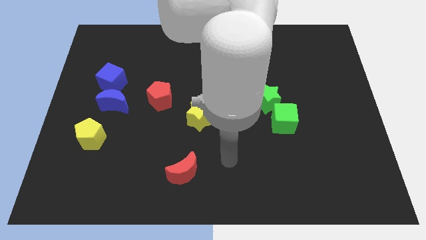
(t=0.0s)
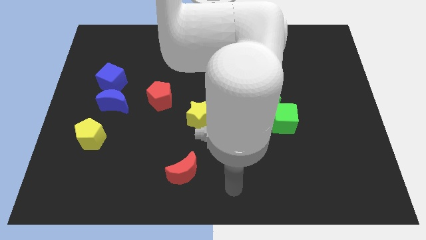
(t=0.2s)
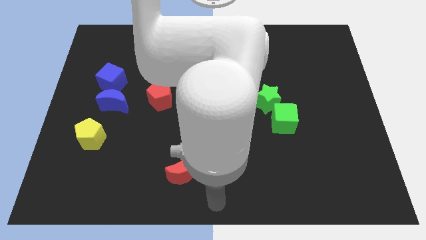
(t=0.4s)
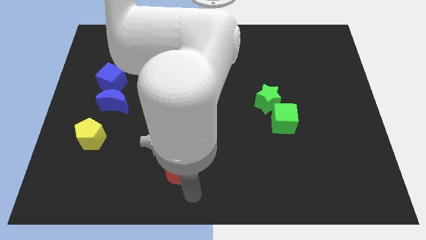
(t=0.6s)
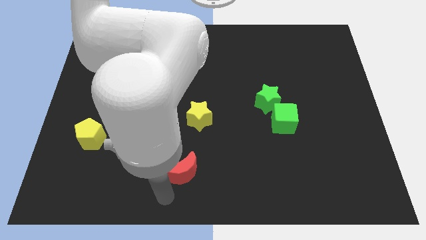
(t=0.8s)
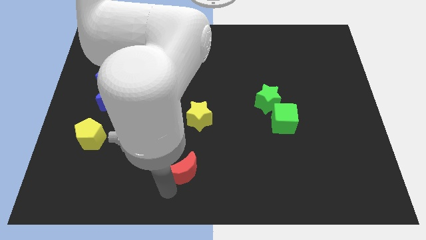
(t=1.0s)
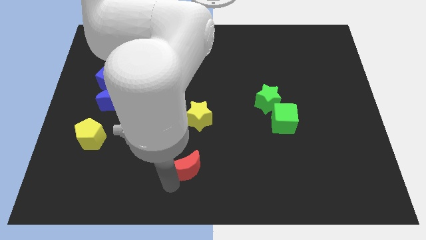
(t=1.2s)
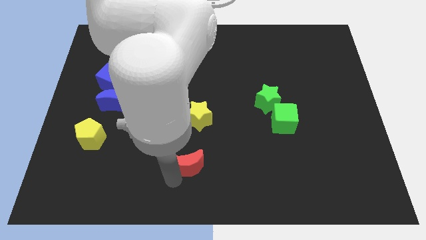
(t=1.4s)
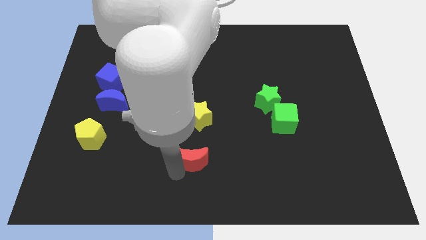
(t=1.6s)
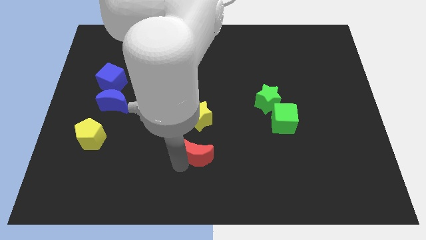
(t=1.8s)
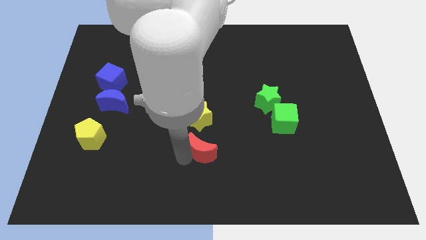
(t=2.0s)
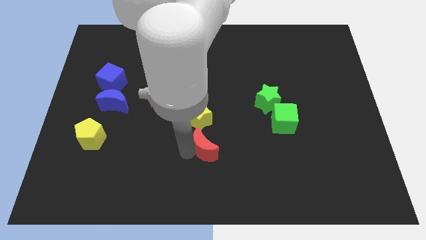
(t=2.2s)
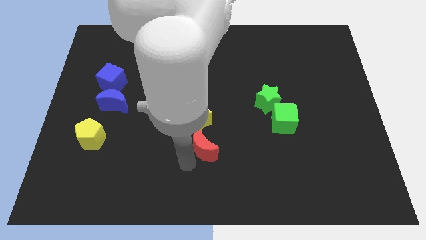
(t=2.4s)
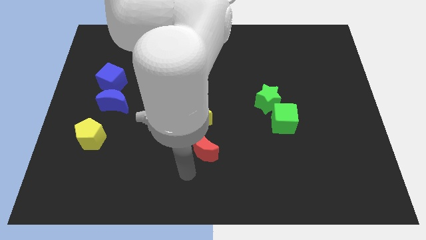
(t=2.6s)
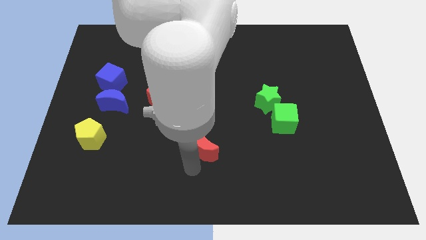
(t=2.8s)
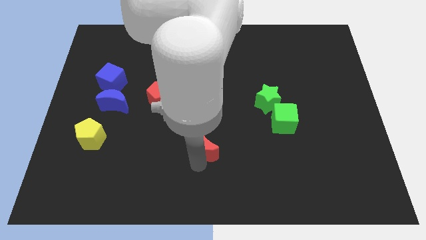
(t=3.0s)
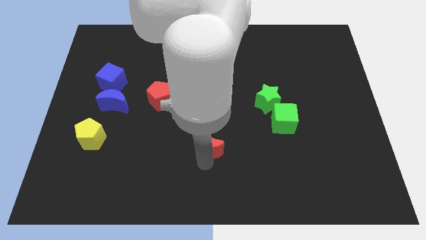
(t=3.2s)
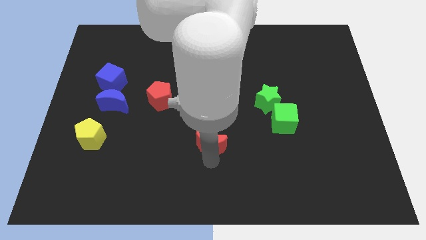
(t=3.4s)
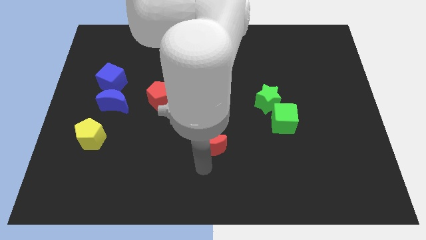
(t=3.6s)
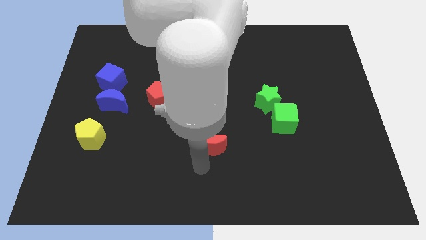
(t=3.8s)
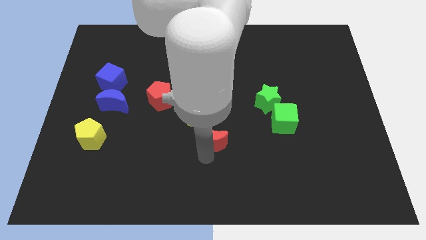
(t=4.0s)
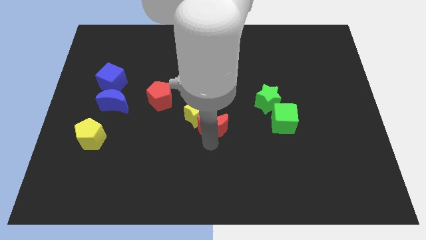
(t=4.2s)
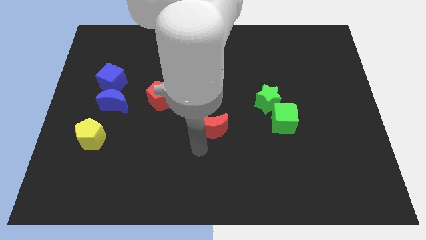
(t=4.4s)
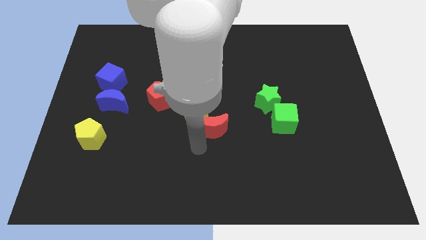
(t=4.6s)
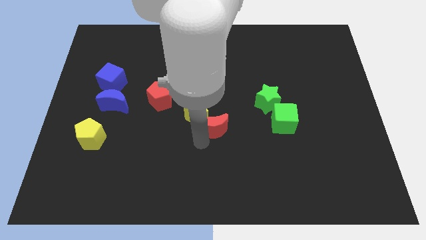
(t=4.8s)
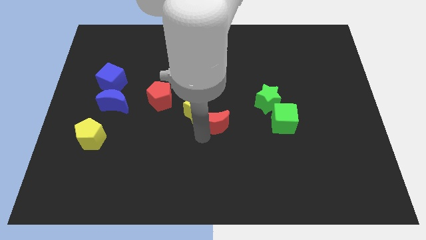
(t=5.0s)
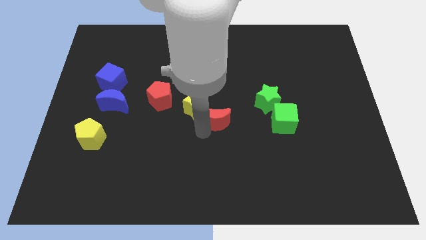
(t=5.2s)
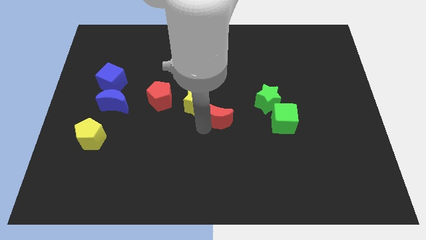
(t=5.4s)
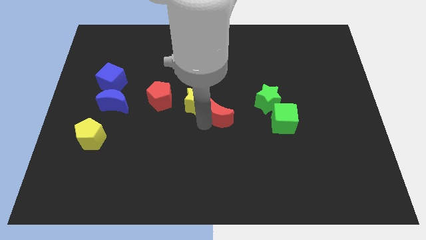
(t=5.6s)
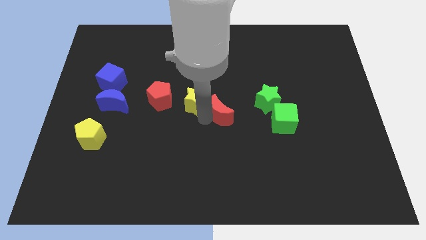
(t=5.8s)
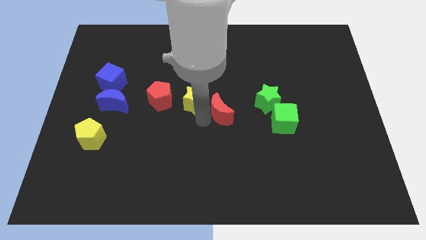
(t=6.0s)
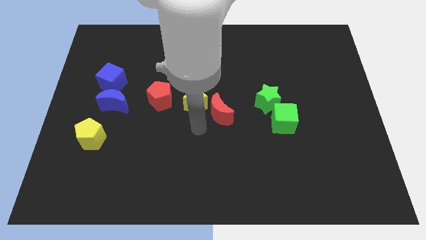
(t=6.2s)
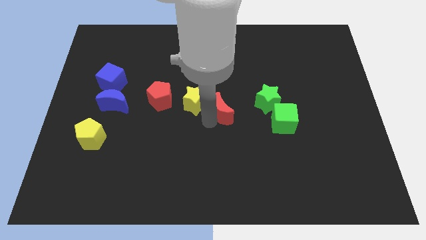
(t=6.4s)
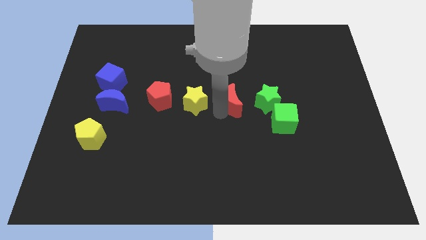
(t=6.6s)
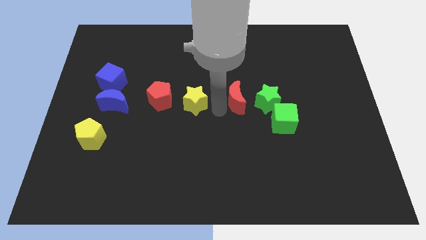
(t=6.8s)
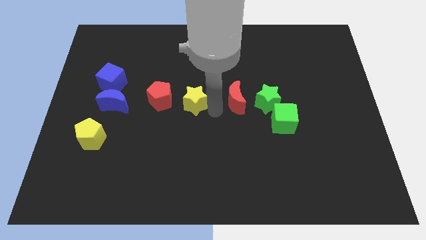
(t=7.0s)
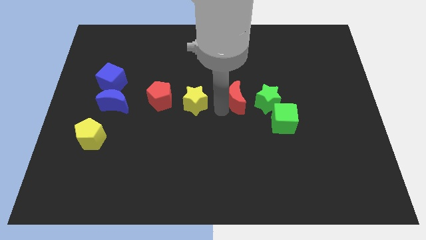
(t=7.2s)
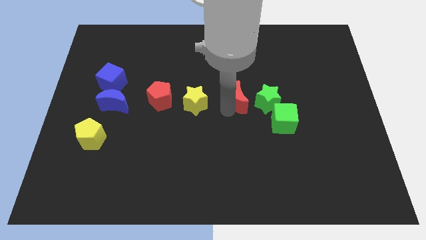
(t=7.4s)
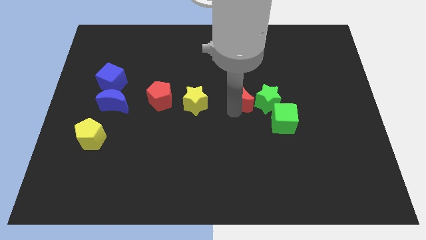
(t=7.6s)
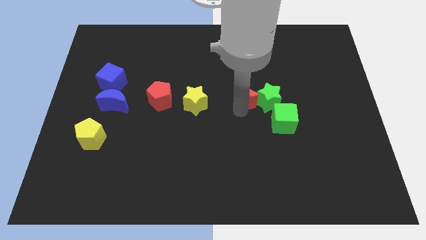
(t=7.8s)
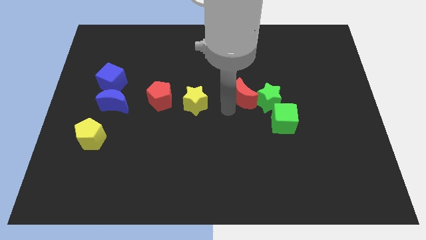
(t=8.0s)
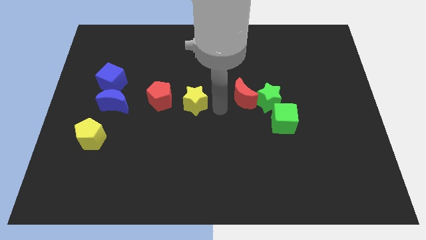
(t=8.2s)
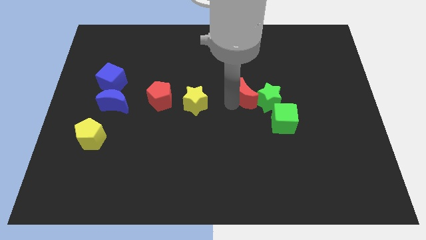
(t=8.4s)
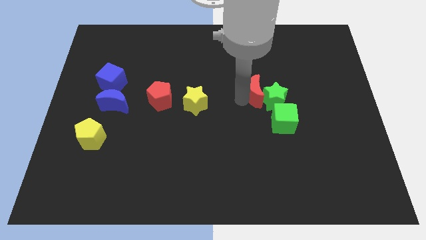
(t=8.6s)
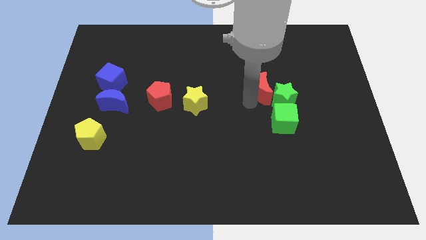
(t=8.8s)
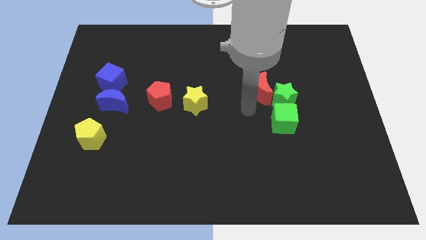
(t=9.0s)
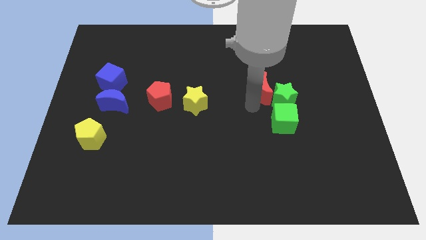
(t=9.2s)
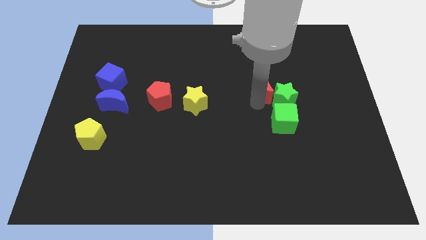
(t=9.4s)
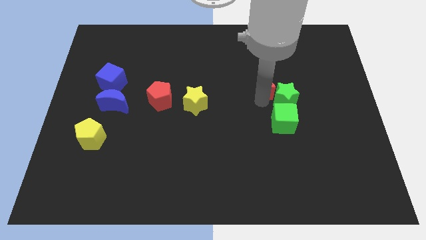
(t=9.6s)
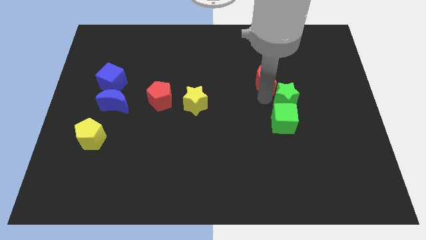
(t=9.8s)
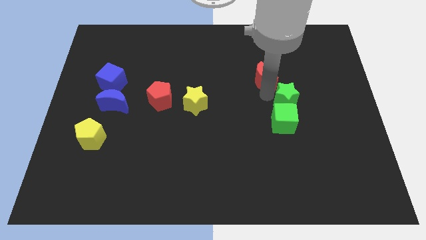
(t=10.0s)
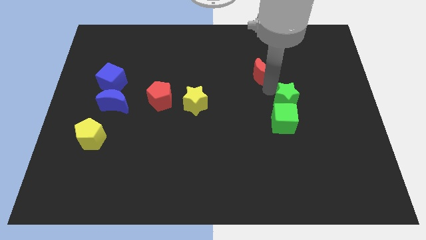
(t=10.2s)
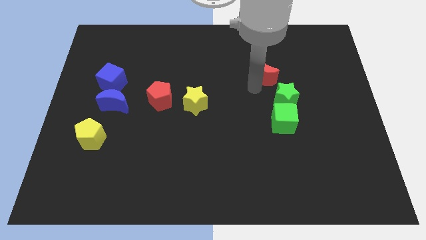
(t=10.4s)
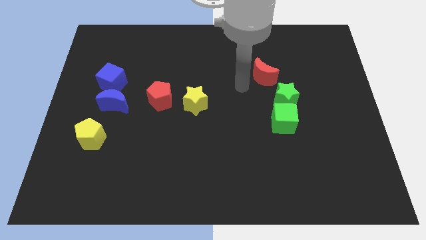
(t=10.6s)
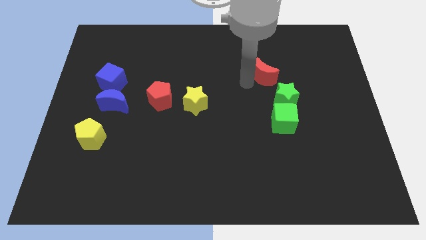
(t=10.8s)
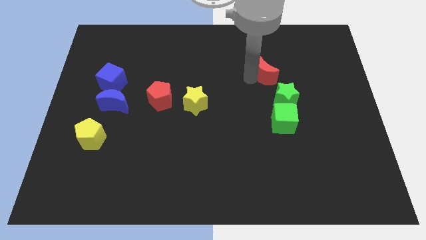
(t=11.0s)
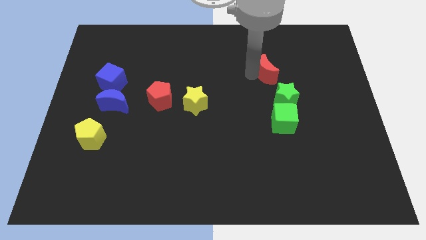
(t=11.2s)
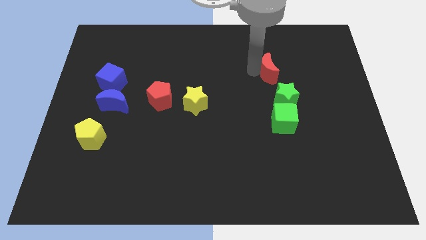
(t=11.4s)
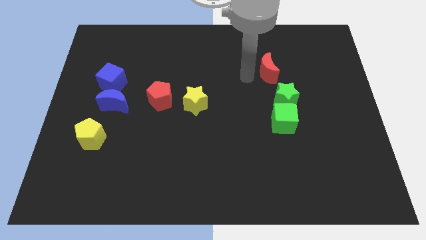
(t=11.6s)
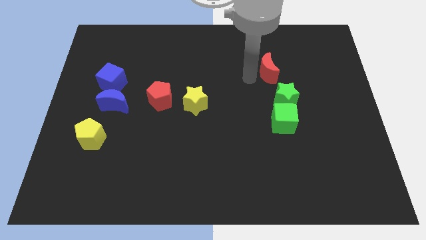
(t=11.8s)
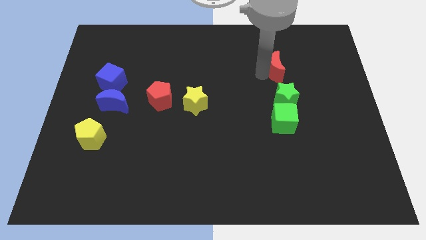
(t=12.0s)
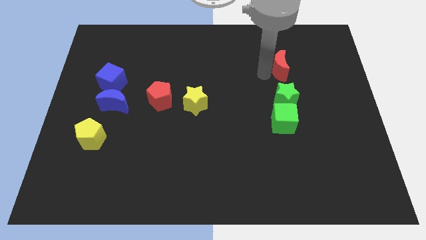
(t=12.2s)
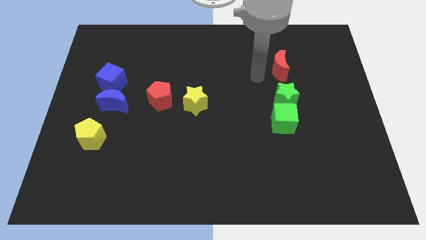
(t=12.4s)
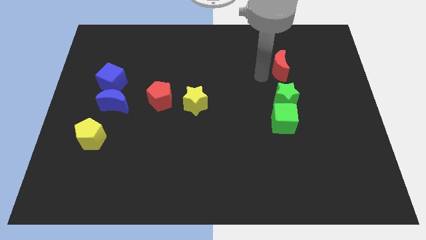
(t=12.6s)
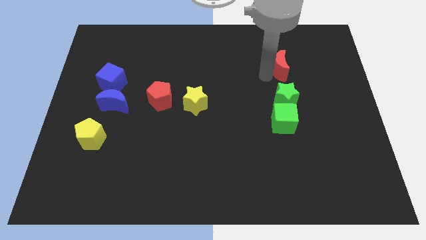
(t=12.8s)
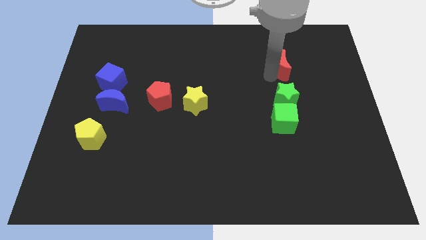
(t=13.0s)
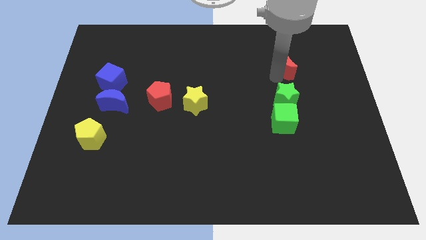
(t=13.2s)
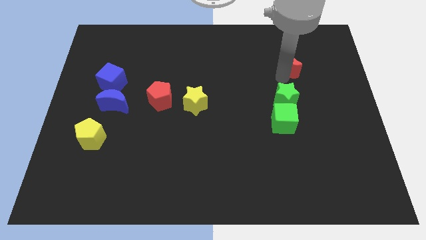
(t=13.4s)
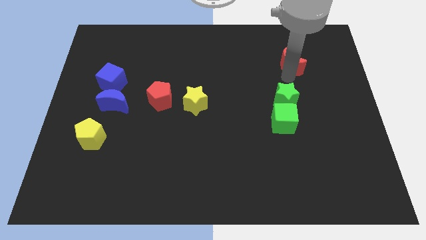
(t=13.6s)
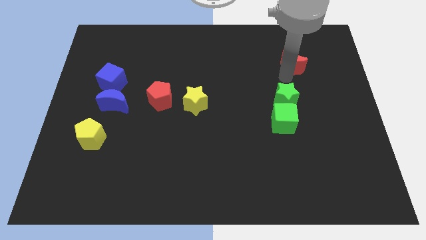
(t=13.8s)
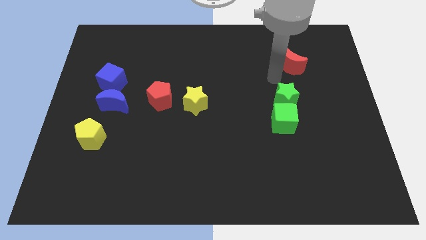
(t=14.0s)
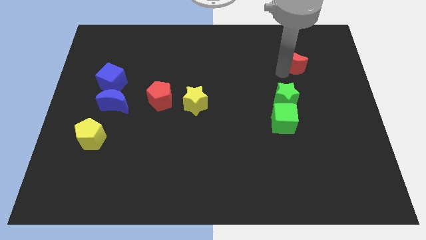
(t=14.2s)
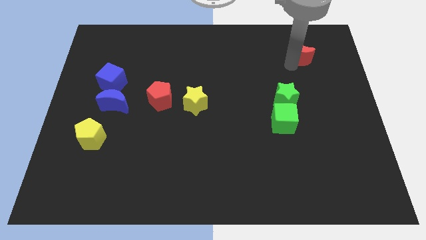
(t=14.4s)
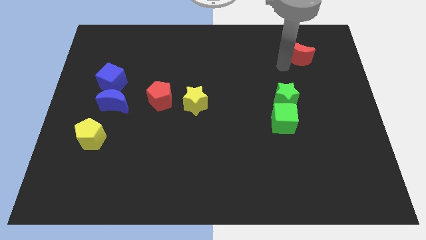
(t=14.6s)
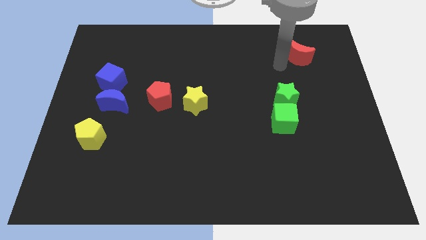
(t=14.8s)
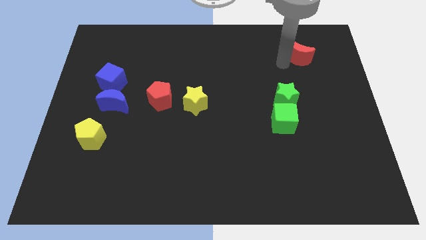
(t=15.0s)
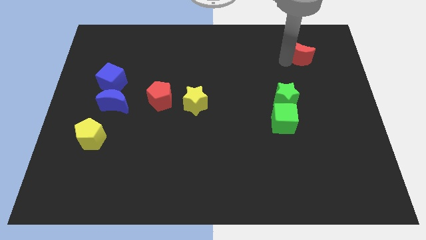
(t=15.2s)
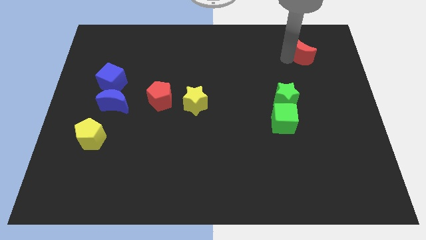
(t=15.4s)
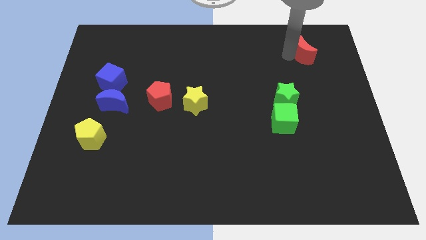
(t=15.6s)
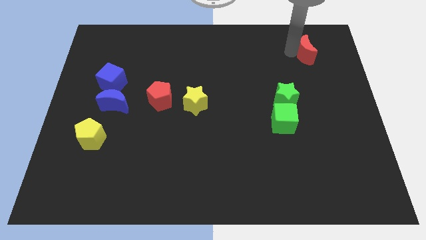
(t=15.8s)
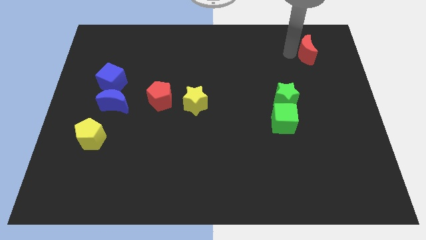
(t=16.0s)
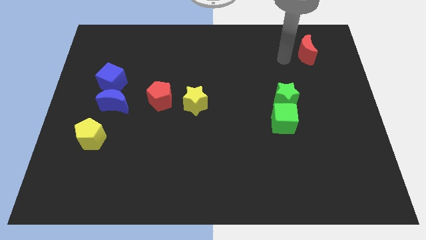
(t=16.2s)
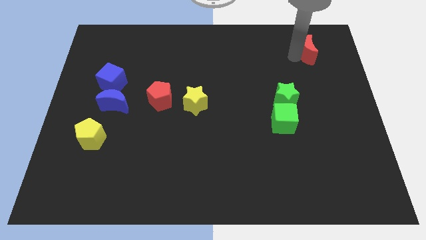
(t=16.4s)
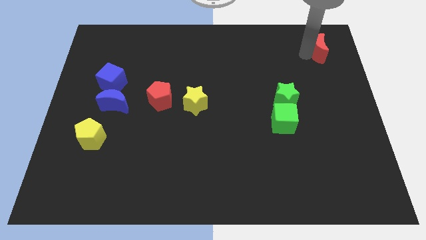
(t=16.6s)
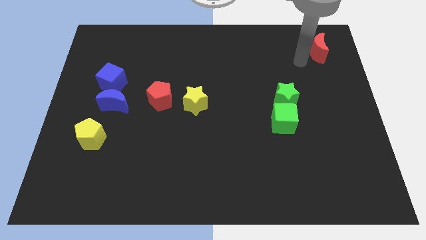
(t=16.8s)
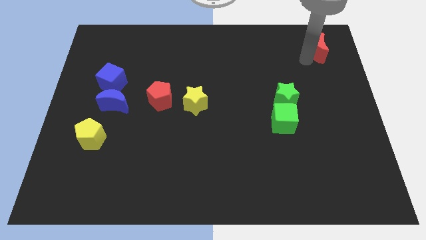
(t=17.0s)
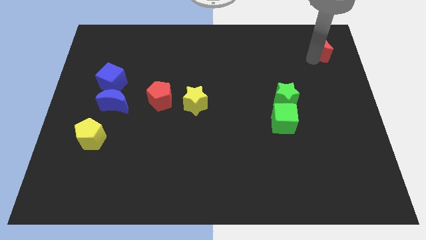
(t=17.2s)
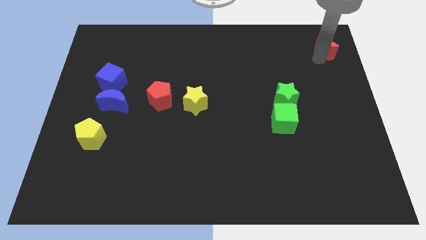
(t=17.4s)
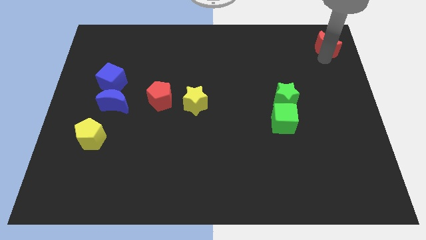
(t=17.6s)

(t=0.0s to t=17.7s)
push the red moon to the top right of the board
